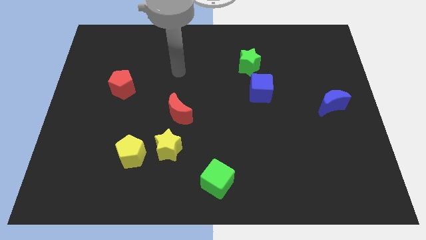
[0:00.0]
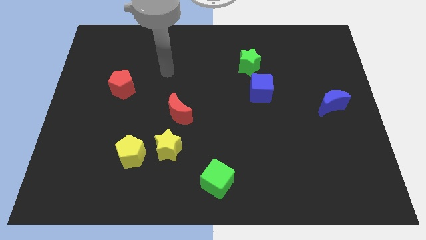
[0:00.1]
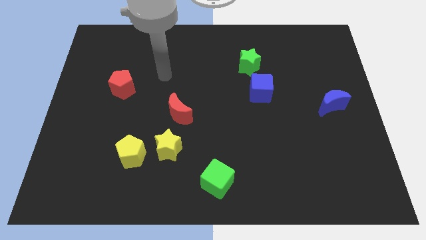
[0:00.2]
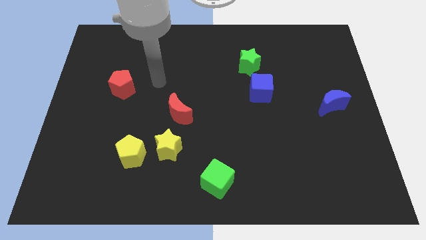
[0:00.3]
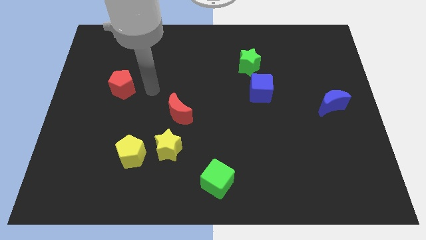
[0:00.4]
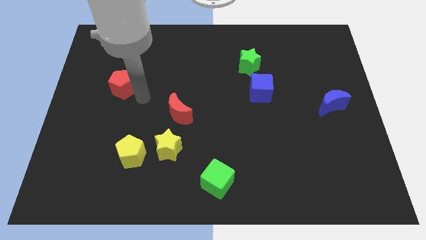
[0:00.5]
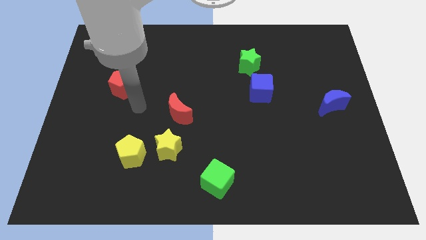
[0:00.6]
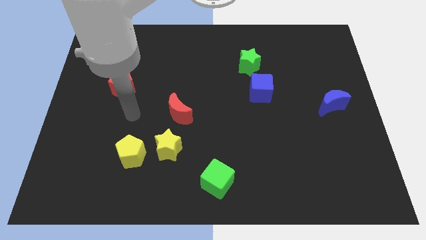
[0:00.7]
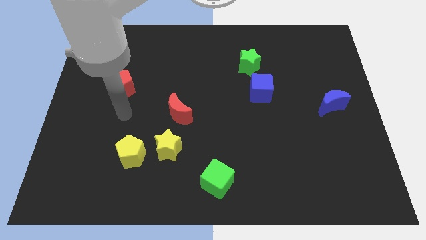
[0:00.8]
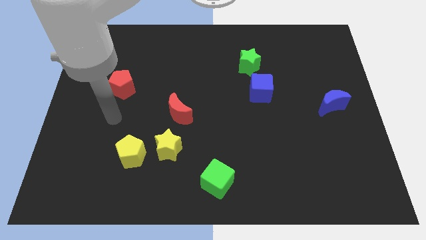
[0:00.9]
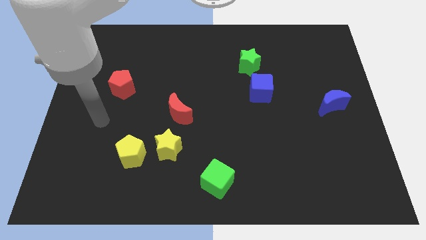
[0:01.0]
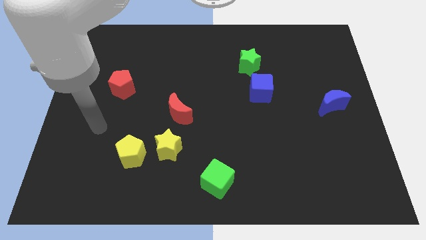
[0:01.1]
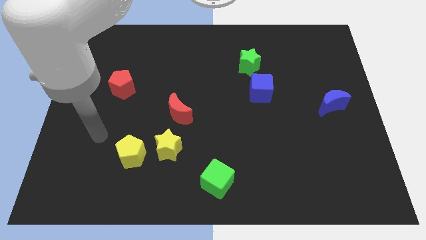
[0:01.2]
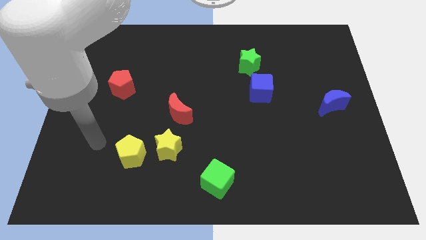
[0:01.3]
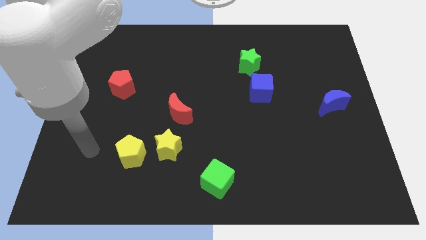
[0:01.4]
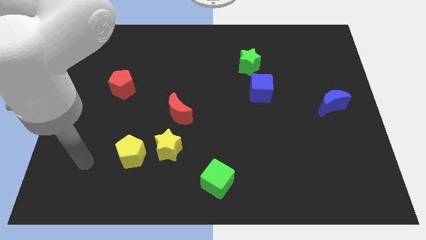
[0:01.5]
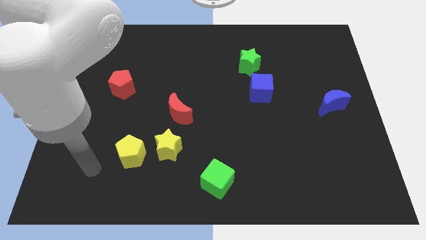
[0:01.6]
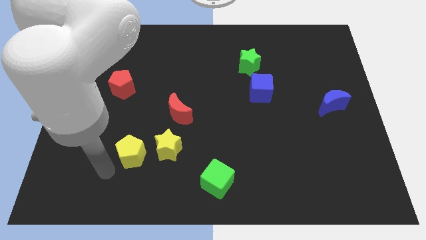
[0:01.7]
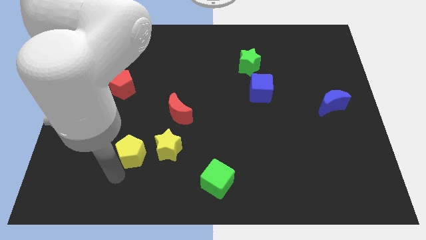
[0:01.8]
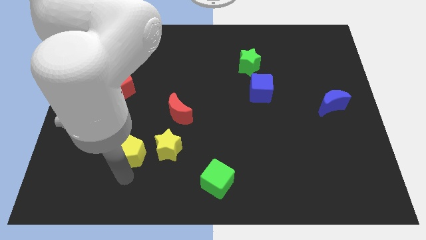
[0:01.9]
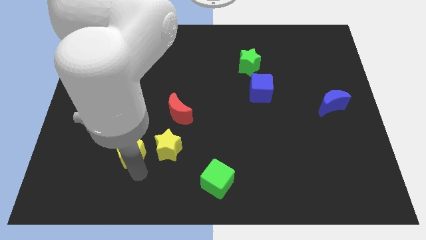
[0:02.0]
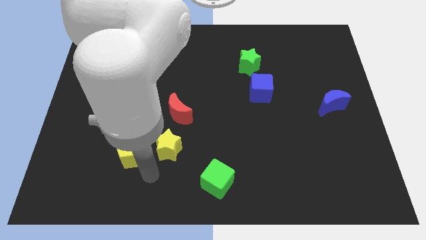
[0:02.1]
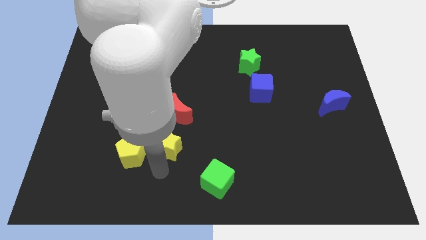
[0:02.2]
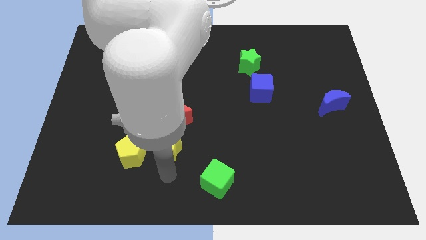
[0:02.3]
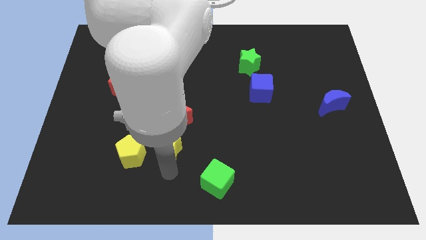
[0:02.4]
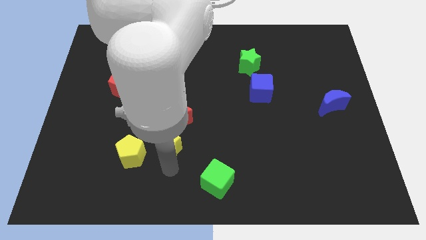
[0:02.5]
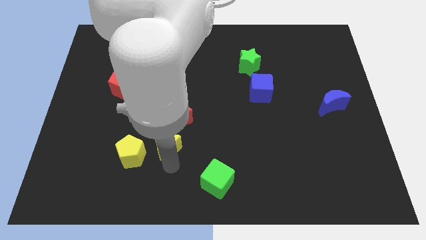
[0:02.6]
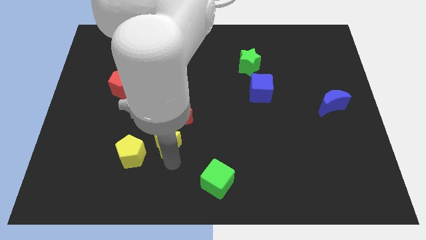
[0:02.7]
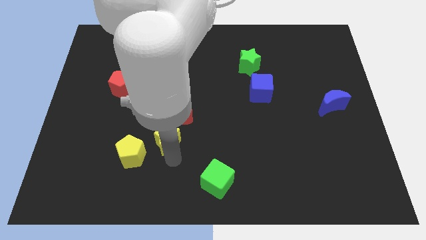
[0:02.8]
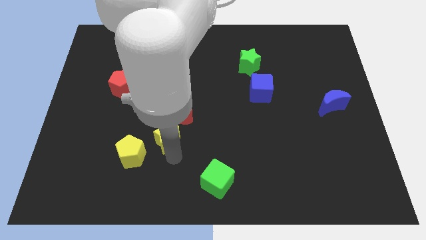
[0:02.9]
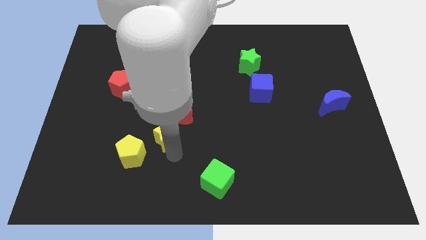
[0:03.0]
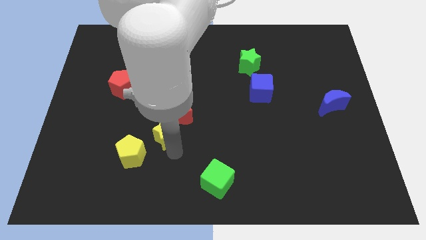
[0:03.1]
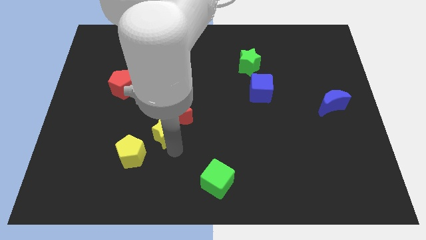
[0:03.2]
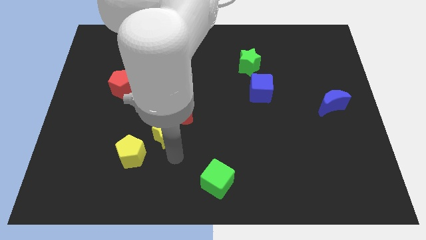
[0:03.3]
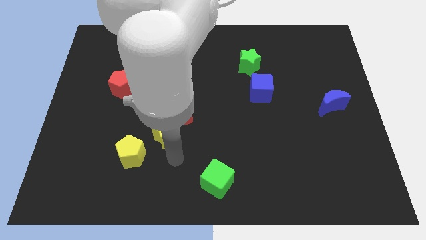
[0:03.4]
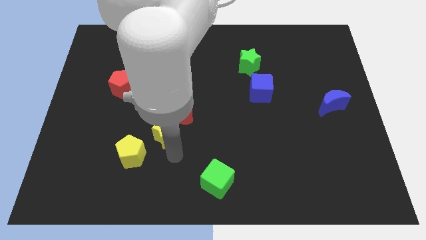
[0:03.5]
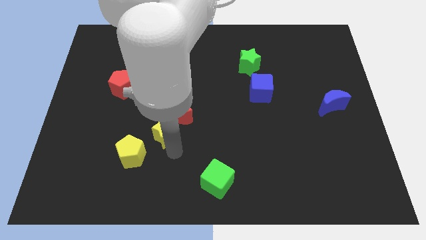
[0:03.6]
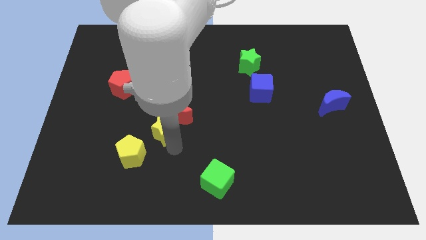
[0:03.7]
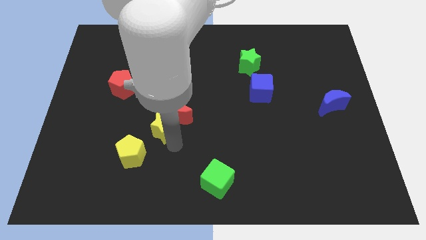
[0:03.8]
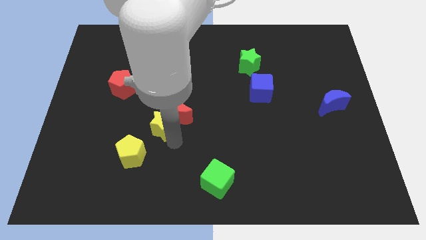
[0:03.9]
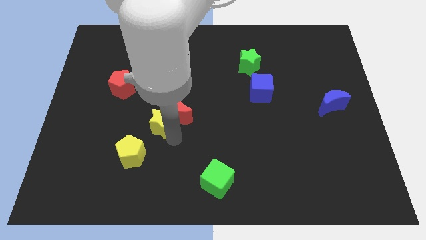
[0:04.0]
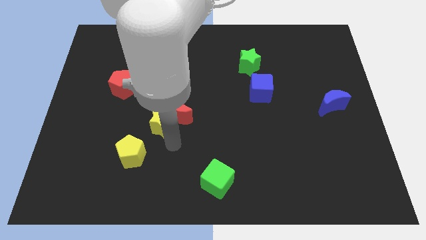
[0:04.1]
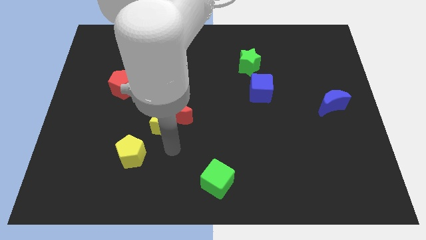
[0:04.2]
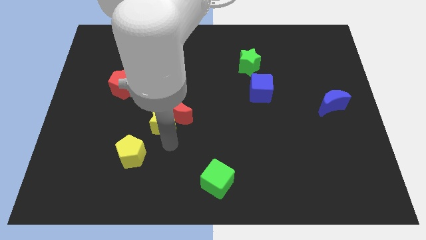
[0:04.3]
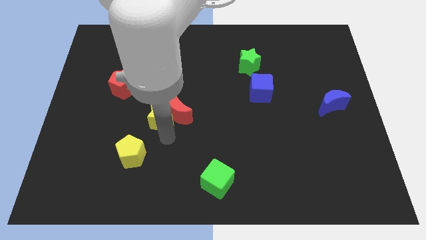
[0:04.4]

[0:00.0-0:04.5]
slightly push the yellow star up
